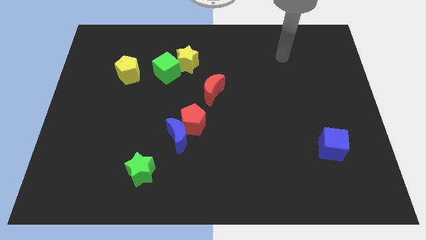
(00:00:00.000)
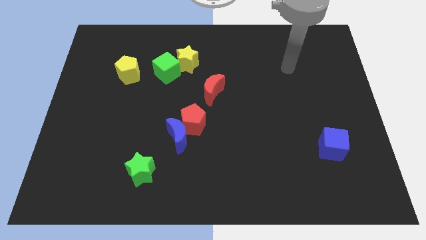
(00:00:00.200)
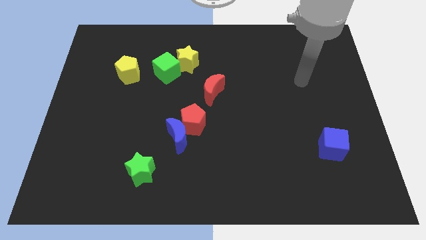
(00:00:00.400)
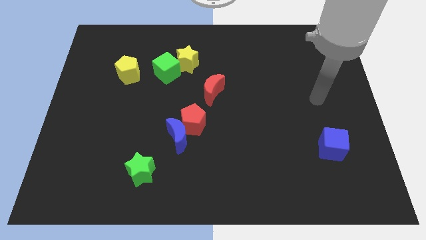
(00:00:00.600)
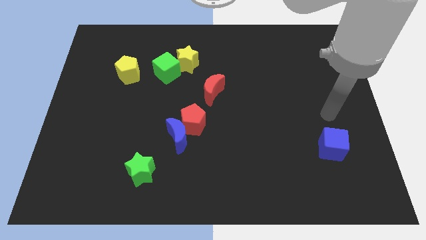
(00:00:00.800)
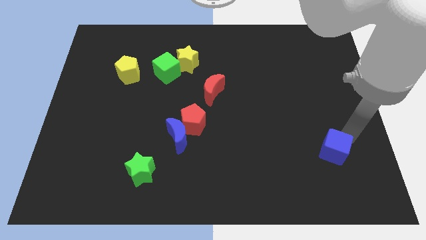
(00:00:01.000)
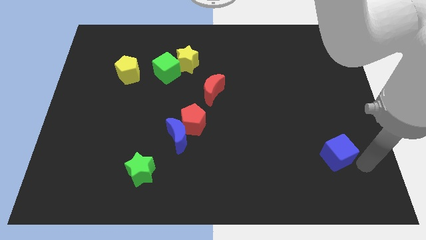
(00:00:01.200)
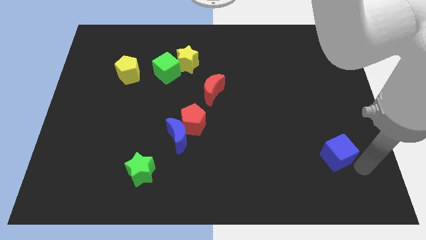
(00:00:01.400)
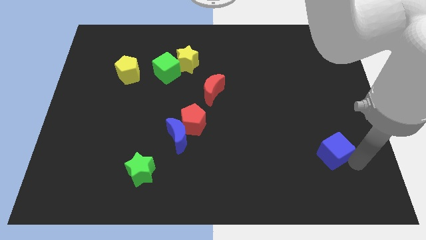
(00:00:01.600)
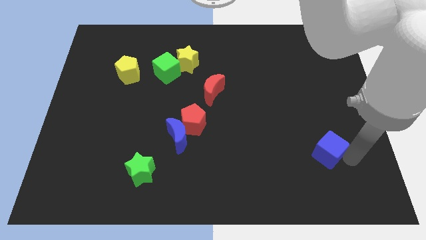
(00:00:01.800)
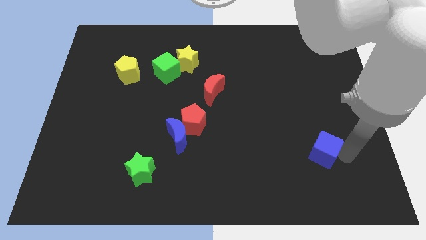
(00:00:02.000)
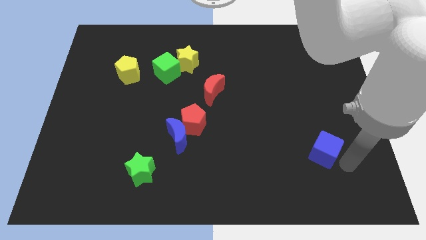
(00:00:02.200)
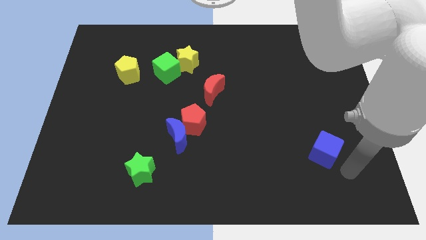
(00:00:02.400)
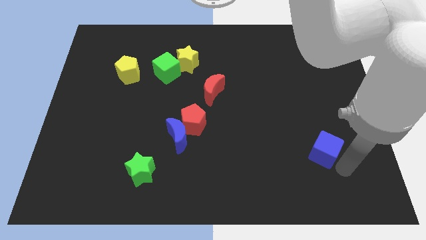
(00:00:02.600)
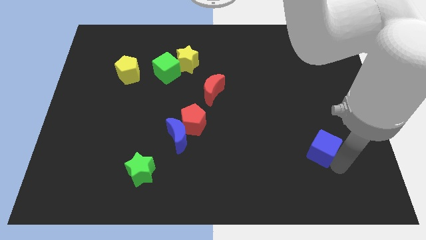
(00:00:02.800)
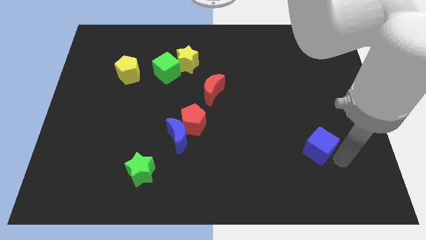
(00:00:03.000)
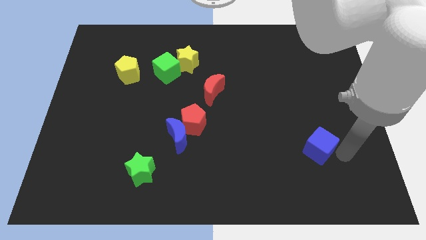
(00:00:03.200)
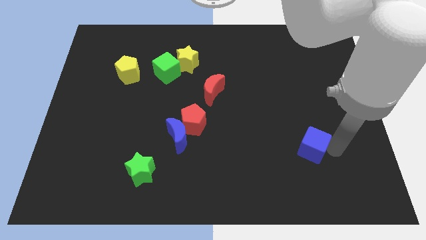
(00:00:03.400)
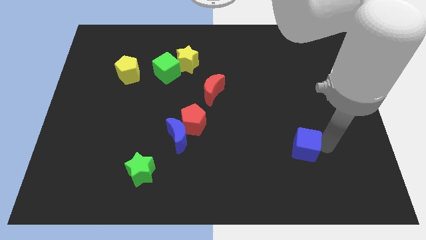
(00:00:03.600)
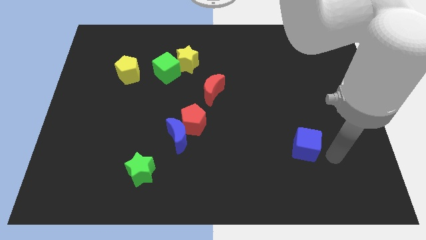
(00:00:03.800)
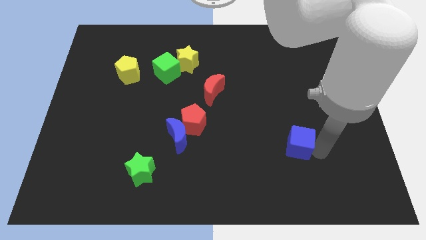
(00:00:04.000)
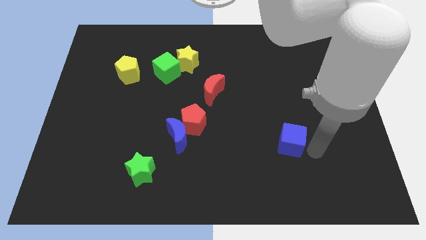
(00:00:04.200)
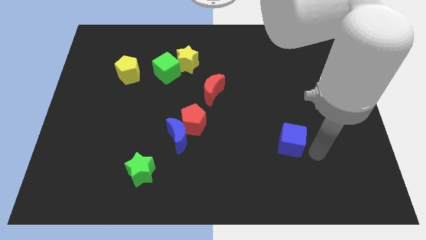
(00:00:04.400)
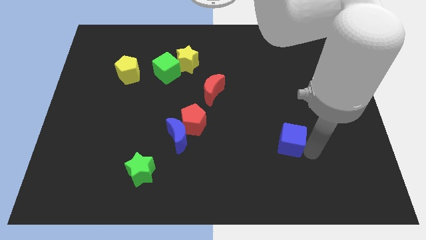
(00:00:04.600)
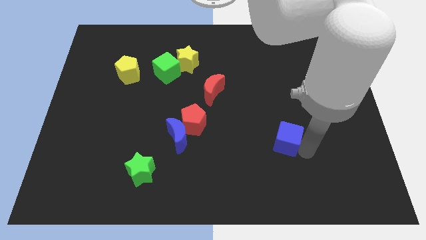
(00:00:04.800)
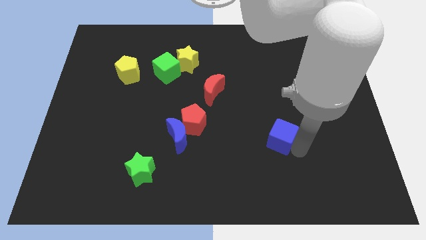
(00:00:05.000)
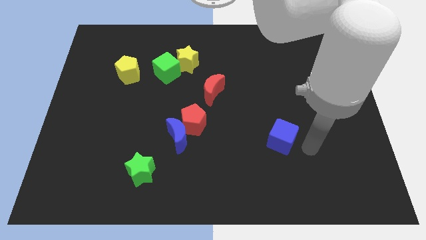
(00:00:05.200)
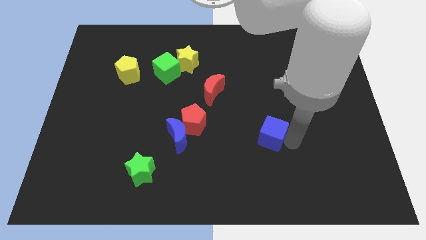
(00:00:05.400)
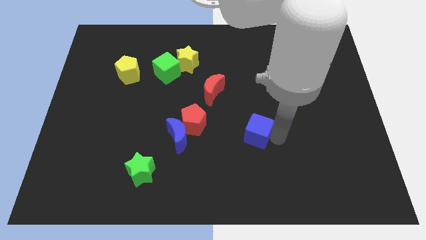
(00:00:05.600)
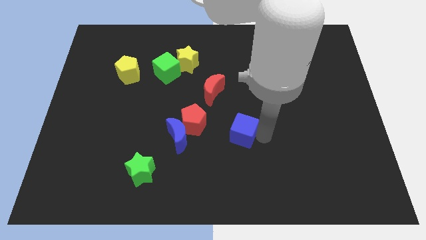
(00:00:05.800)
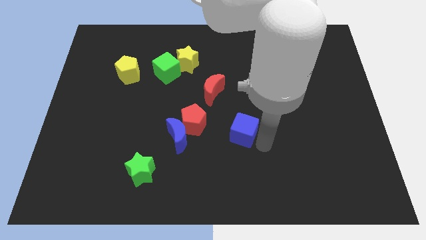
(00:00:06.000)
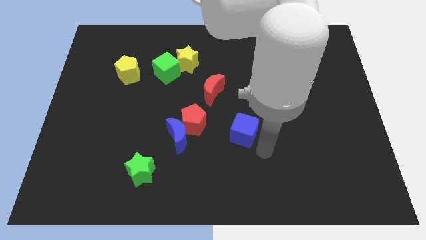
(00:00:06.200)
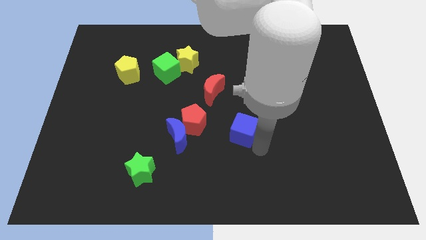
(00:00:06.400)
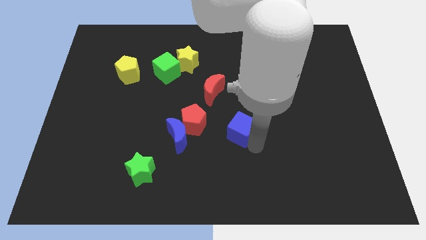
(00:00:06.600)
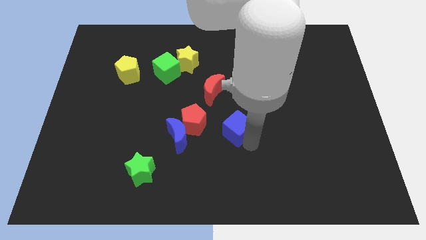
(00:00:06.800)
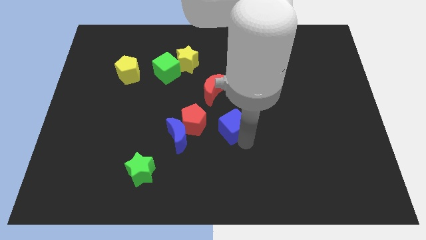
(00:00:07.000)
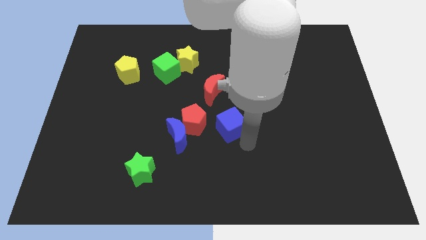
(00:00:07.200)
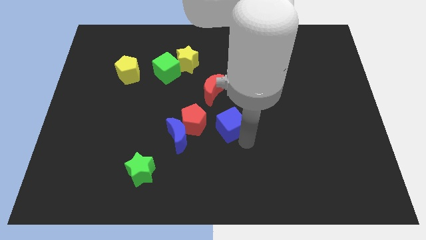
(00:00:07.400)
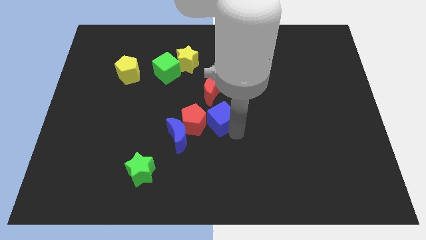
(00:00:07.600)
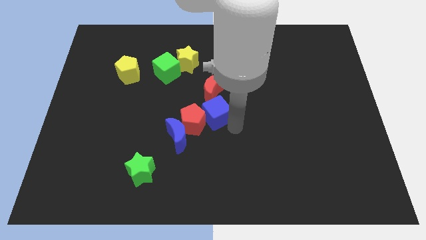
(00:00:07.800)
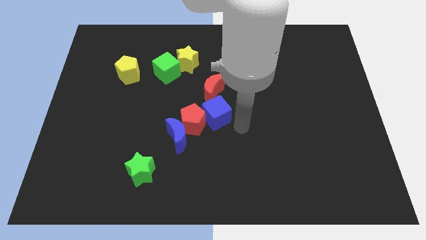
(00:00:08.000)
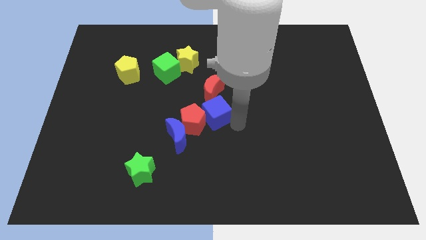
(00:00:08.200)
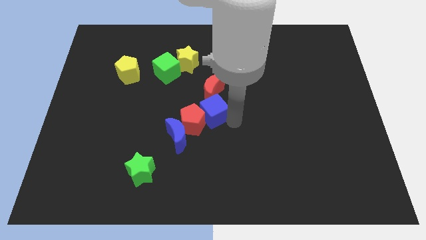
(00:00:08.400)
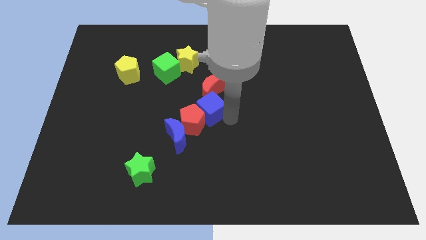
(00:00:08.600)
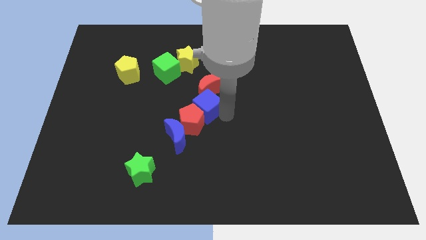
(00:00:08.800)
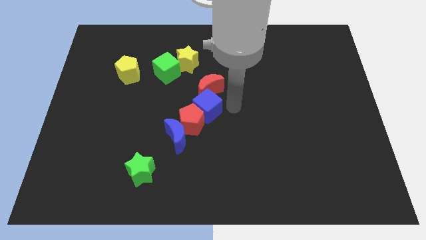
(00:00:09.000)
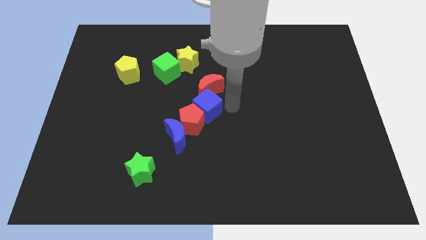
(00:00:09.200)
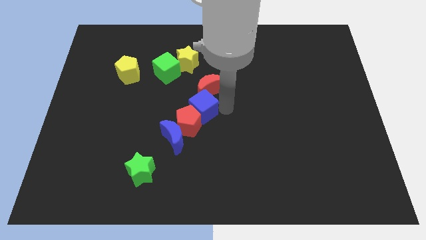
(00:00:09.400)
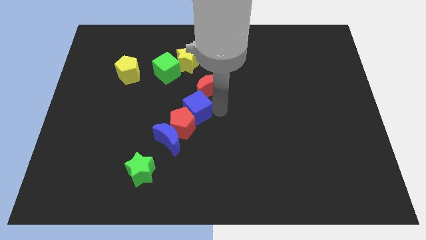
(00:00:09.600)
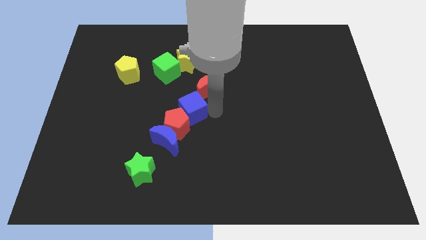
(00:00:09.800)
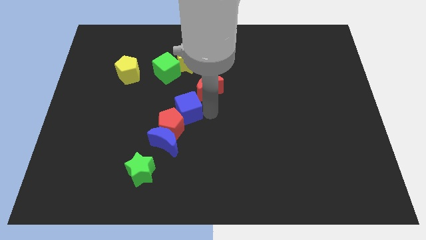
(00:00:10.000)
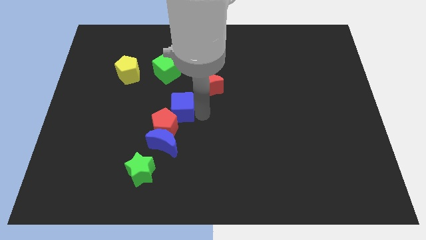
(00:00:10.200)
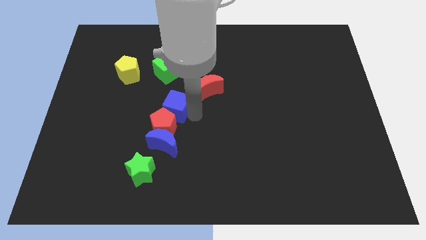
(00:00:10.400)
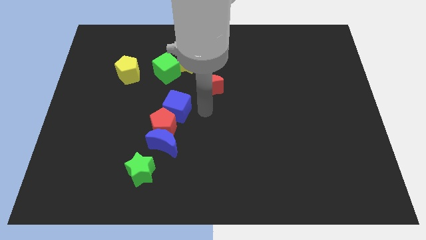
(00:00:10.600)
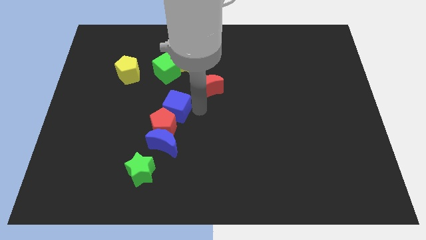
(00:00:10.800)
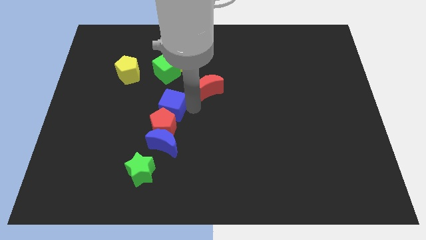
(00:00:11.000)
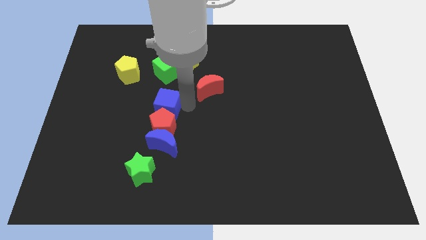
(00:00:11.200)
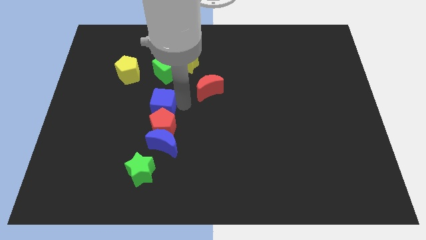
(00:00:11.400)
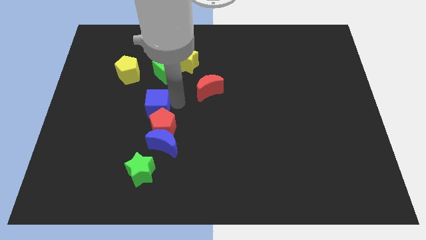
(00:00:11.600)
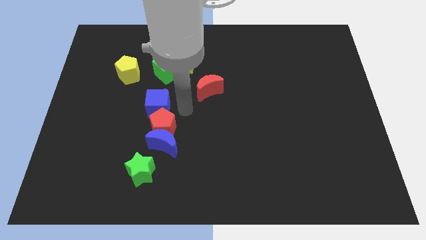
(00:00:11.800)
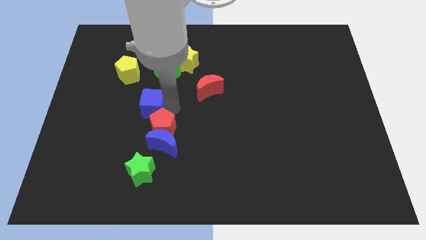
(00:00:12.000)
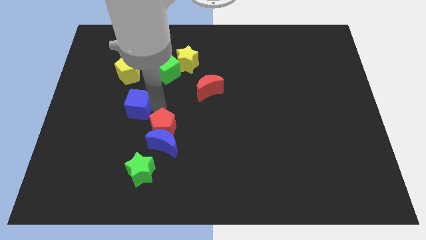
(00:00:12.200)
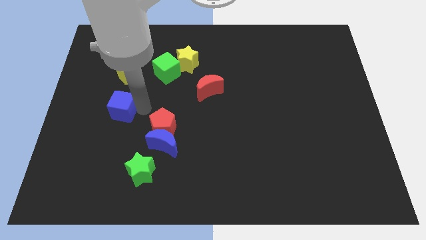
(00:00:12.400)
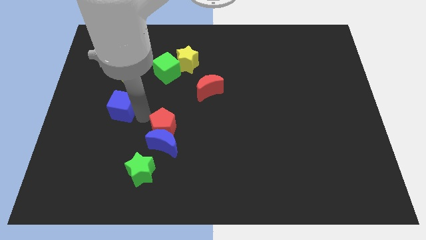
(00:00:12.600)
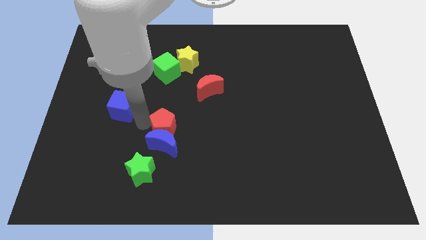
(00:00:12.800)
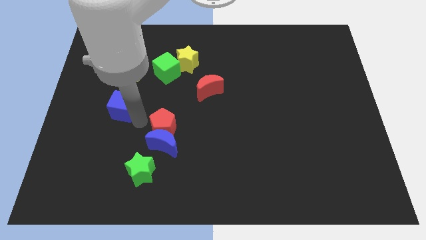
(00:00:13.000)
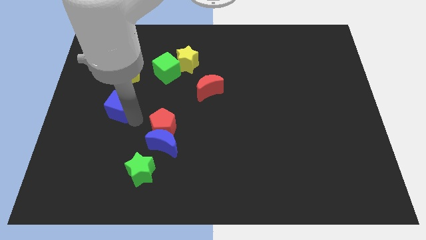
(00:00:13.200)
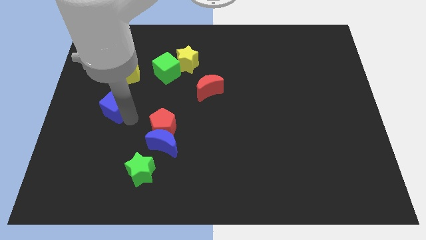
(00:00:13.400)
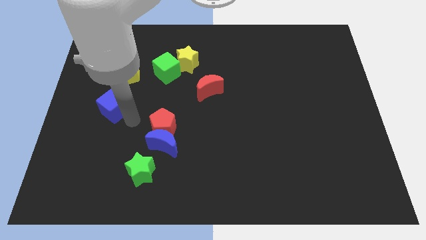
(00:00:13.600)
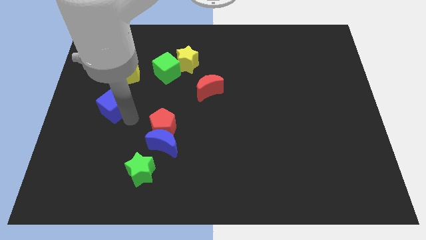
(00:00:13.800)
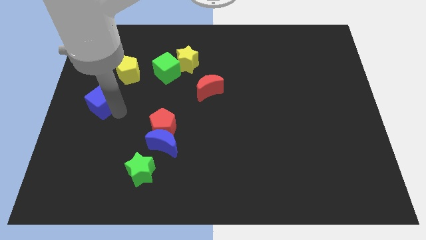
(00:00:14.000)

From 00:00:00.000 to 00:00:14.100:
slide the blue cube to the center left
